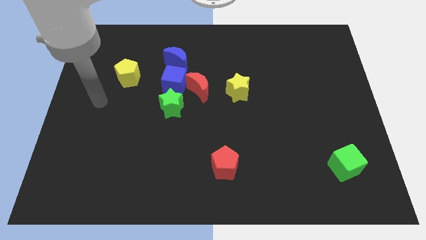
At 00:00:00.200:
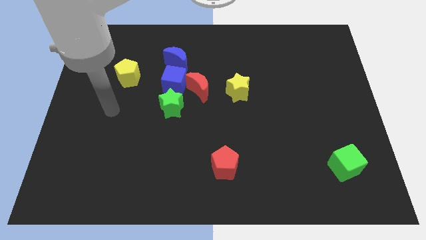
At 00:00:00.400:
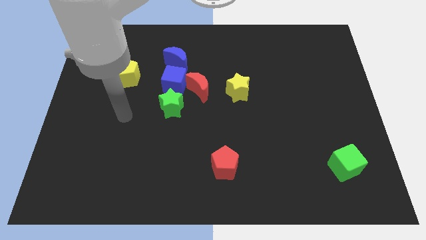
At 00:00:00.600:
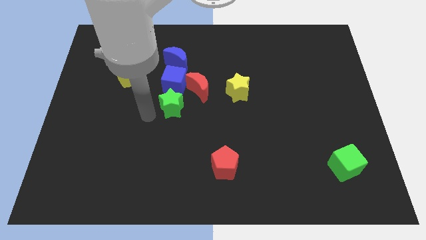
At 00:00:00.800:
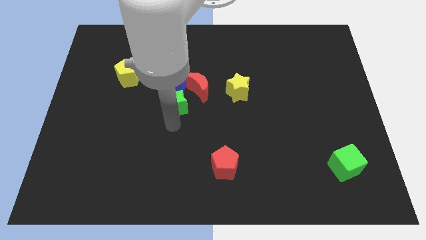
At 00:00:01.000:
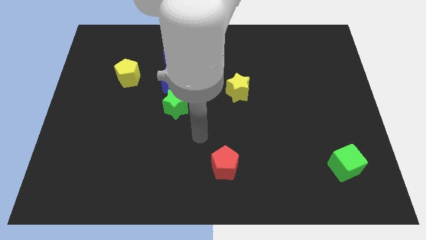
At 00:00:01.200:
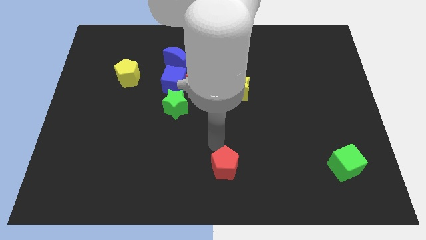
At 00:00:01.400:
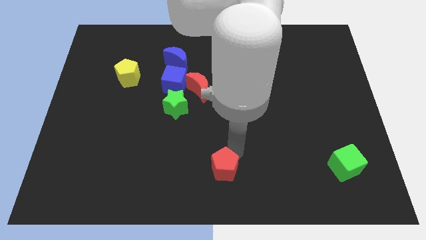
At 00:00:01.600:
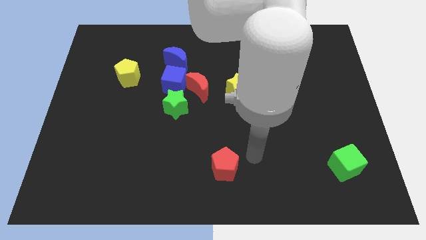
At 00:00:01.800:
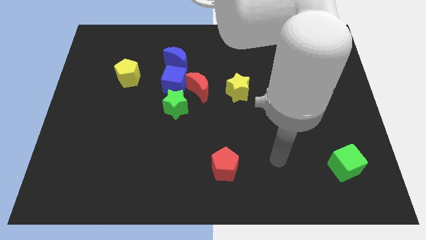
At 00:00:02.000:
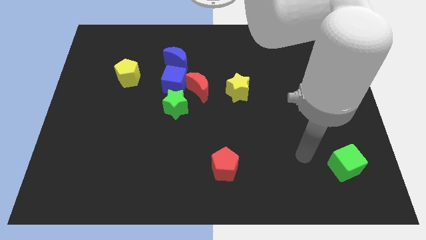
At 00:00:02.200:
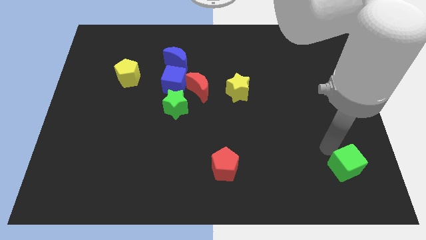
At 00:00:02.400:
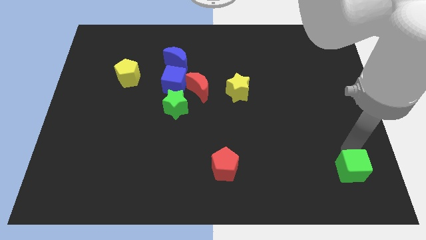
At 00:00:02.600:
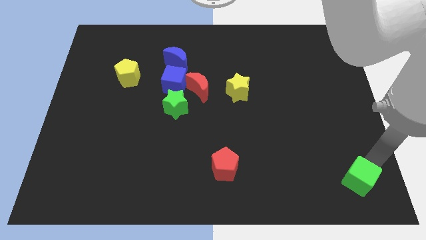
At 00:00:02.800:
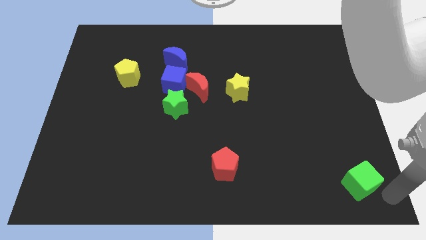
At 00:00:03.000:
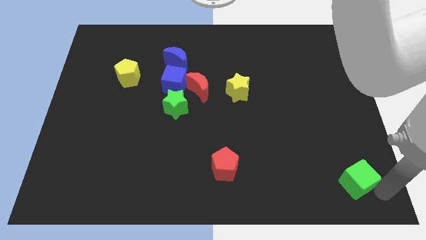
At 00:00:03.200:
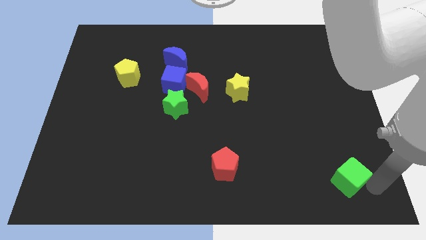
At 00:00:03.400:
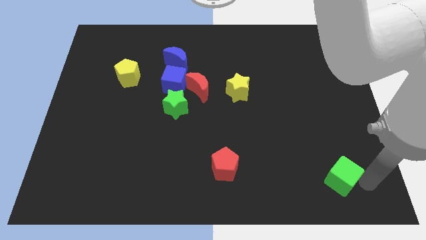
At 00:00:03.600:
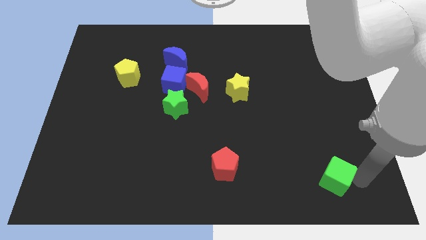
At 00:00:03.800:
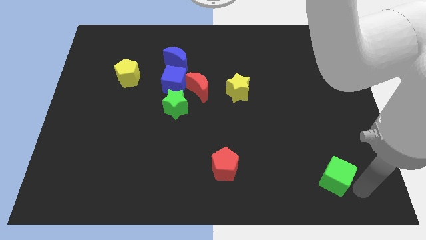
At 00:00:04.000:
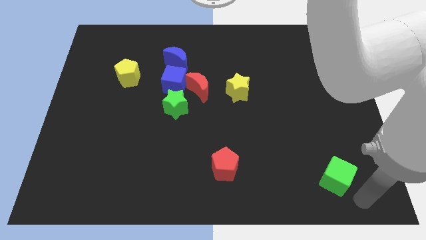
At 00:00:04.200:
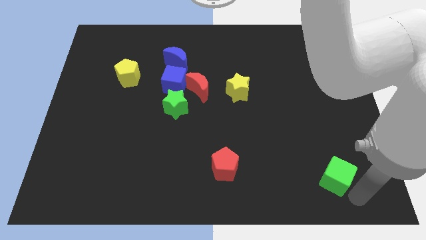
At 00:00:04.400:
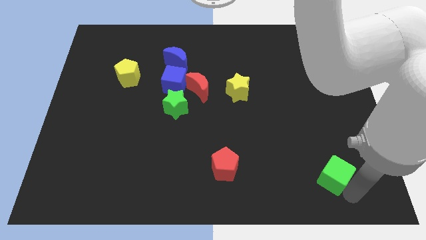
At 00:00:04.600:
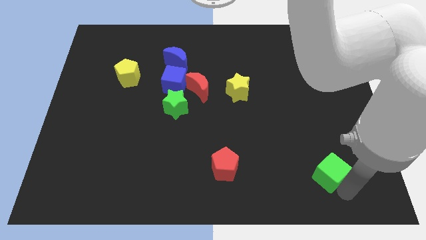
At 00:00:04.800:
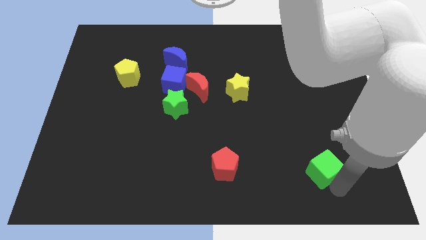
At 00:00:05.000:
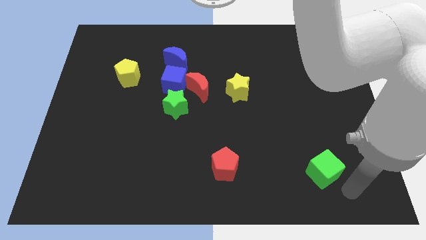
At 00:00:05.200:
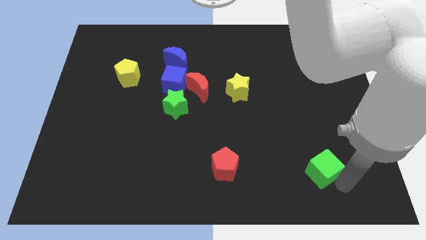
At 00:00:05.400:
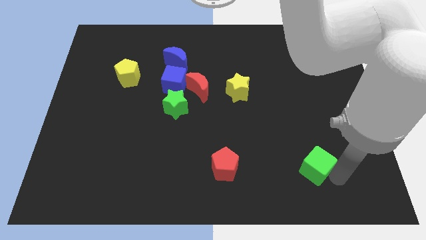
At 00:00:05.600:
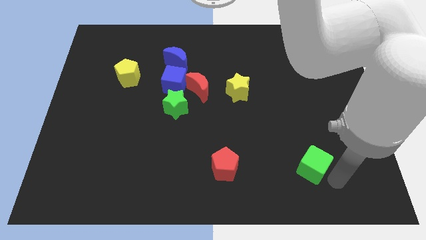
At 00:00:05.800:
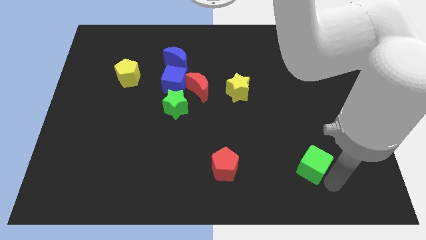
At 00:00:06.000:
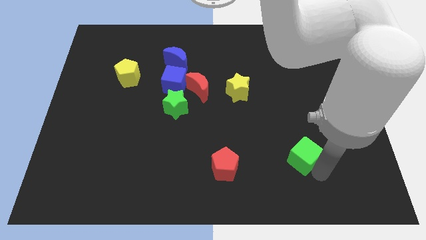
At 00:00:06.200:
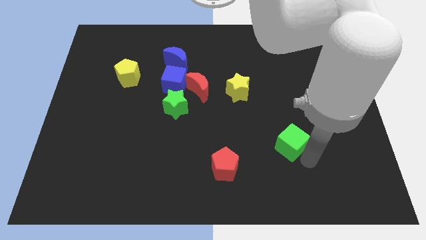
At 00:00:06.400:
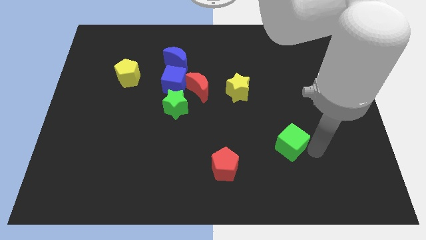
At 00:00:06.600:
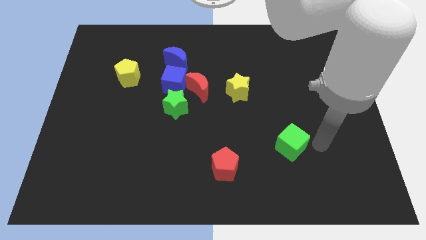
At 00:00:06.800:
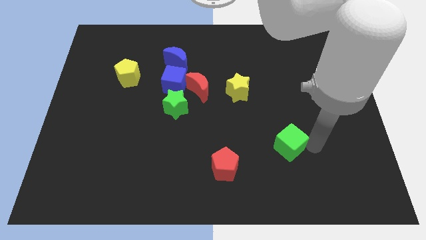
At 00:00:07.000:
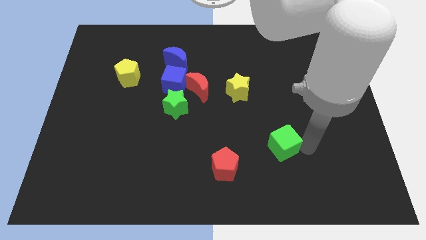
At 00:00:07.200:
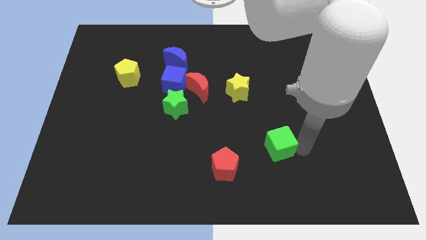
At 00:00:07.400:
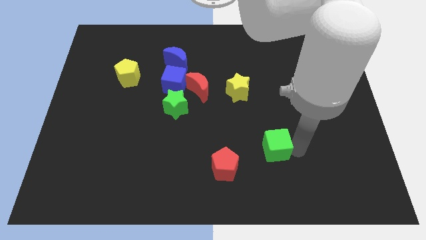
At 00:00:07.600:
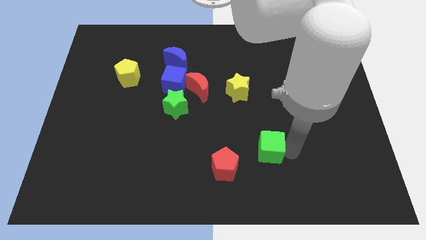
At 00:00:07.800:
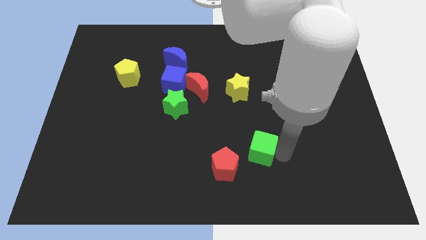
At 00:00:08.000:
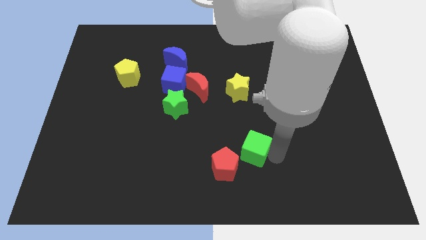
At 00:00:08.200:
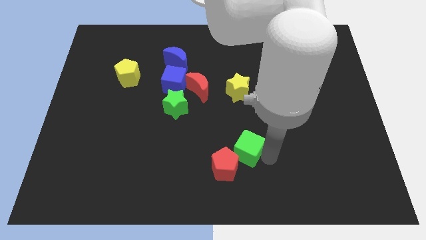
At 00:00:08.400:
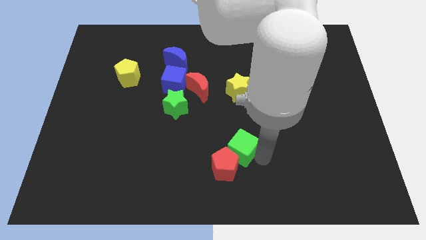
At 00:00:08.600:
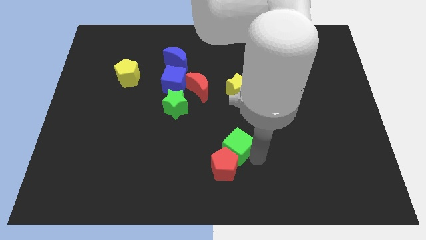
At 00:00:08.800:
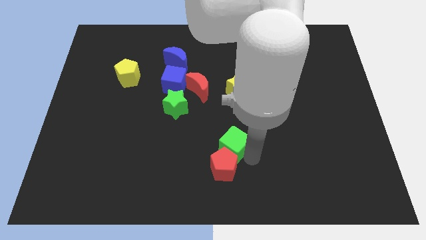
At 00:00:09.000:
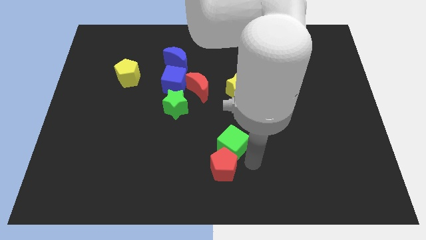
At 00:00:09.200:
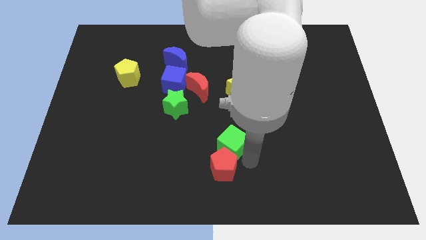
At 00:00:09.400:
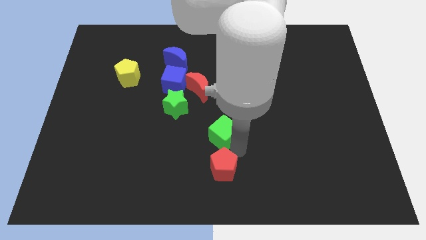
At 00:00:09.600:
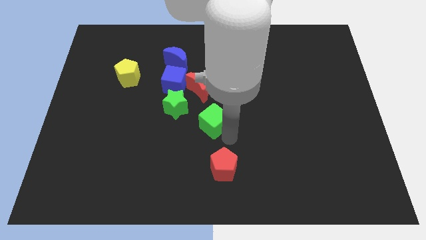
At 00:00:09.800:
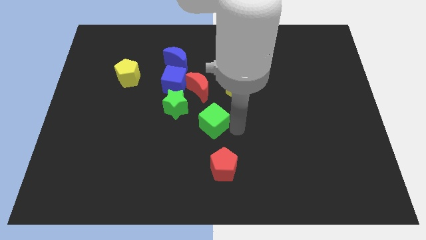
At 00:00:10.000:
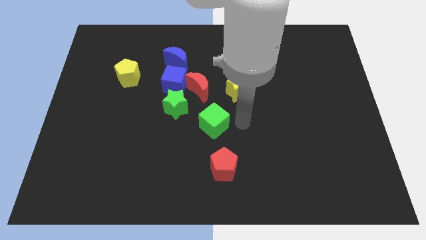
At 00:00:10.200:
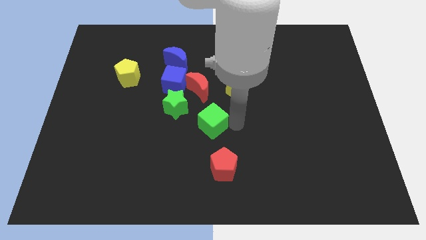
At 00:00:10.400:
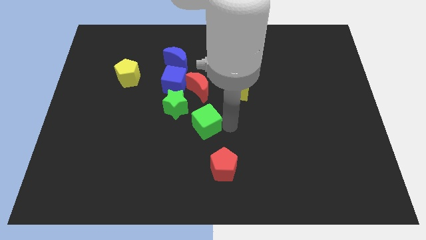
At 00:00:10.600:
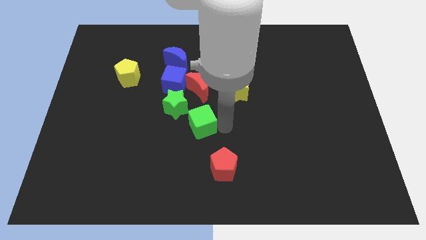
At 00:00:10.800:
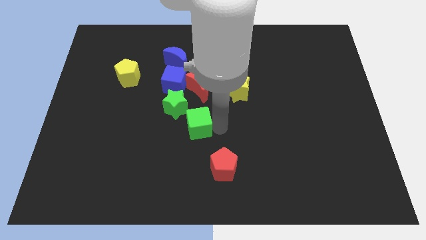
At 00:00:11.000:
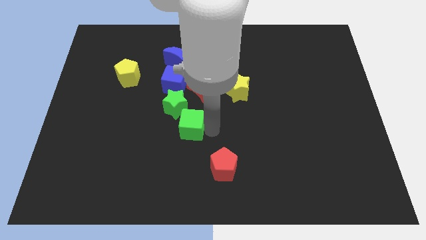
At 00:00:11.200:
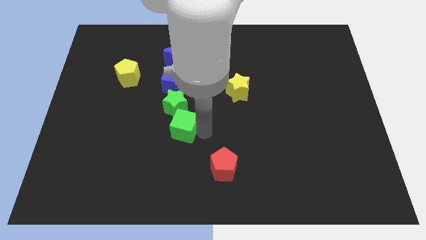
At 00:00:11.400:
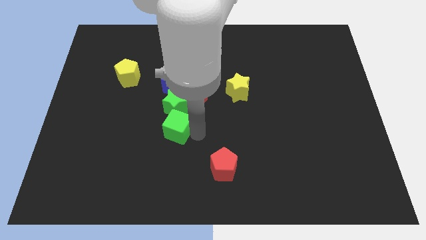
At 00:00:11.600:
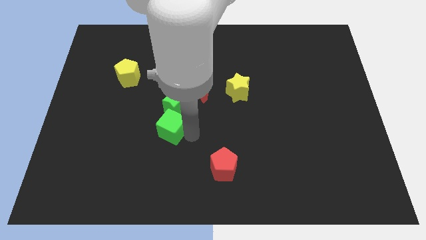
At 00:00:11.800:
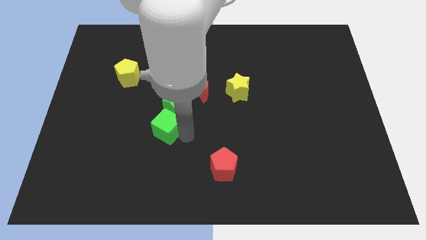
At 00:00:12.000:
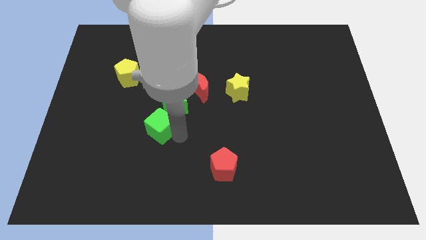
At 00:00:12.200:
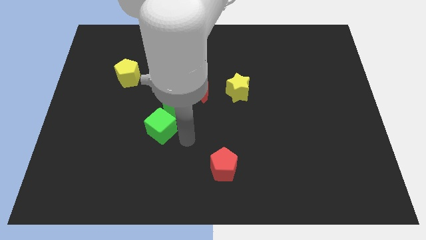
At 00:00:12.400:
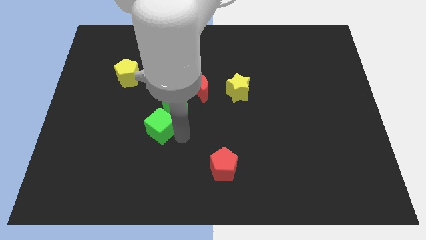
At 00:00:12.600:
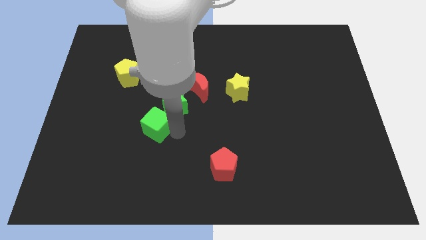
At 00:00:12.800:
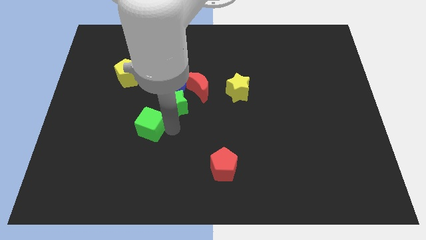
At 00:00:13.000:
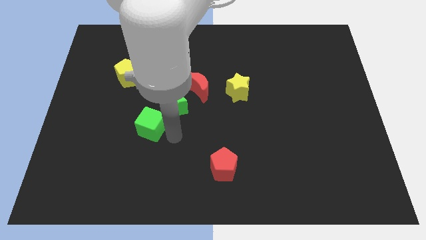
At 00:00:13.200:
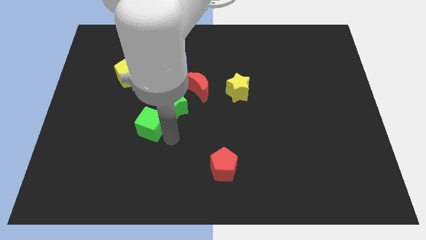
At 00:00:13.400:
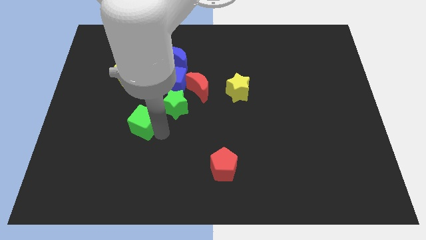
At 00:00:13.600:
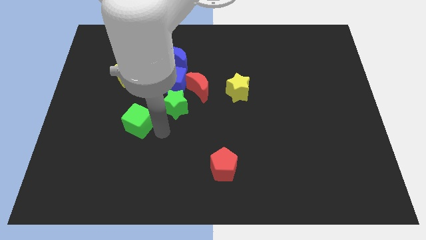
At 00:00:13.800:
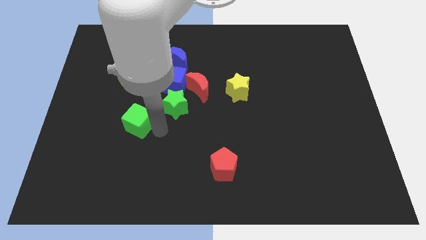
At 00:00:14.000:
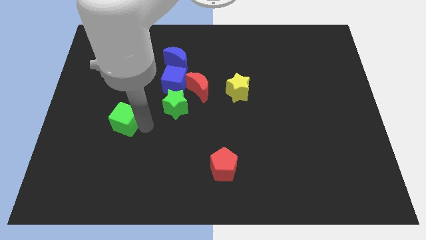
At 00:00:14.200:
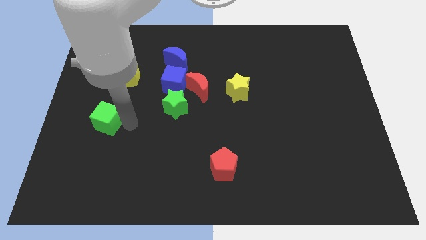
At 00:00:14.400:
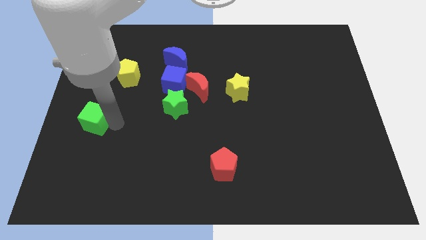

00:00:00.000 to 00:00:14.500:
slide the green cube to the left side of the board
